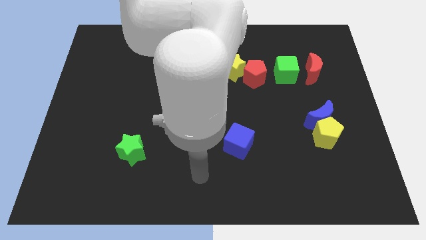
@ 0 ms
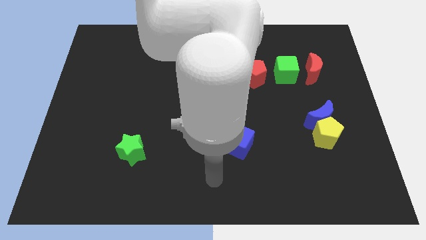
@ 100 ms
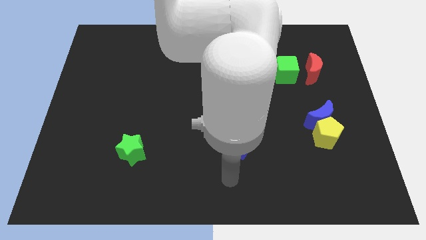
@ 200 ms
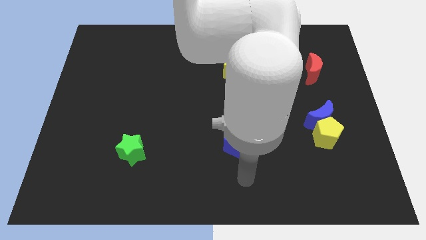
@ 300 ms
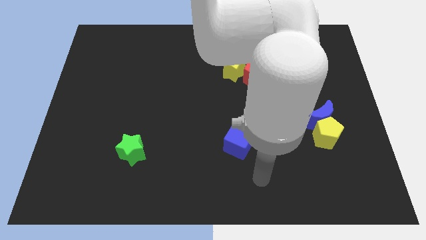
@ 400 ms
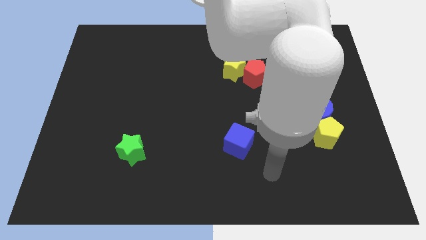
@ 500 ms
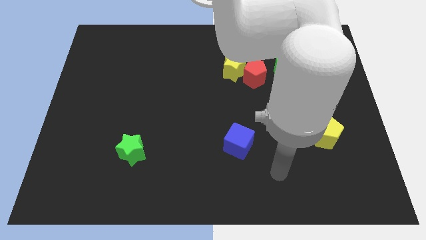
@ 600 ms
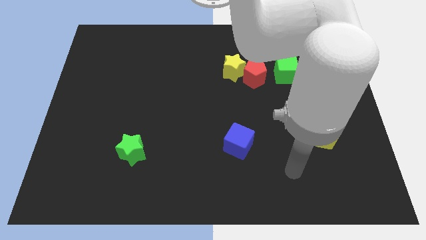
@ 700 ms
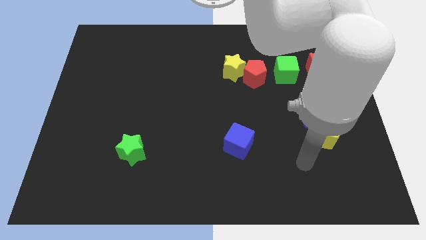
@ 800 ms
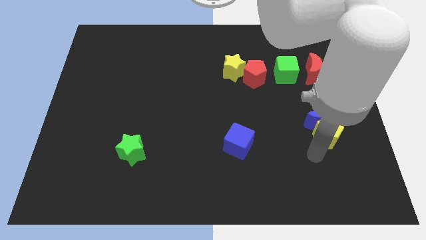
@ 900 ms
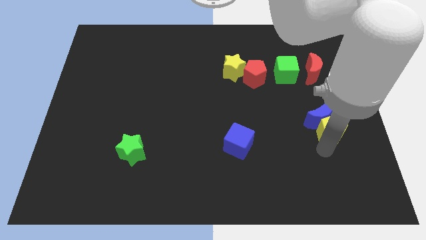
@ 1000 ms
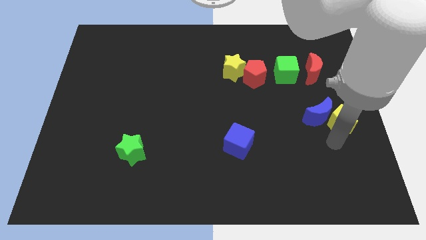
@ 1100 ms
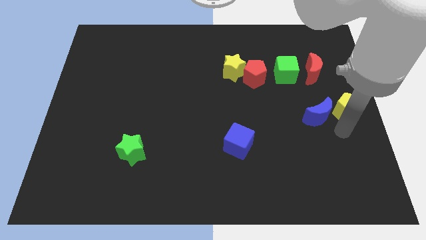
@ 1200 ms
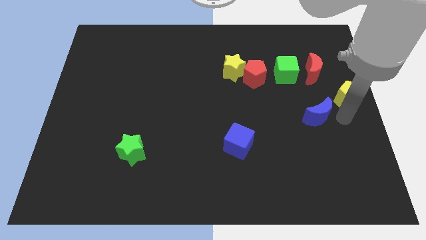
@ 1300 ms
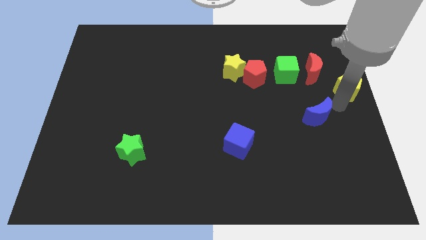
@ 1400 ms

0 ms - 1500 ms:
separate the blue moon from the yellow pentagon

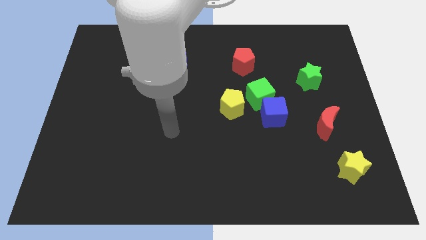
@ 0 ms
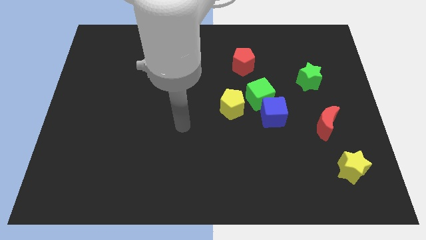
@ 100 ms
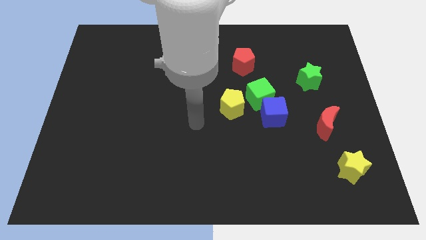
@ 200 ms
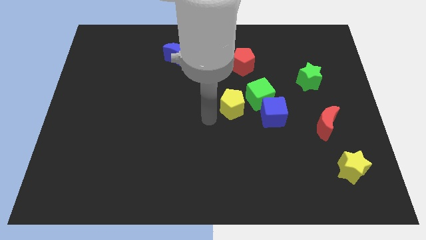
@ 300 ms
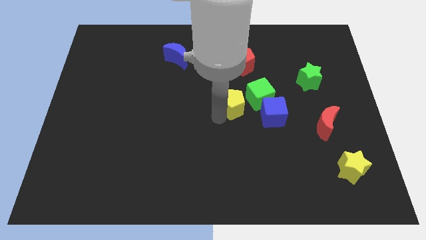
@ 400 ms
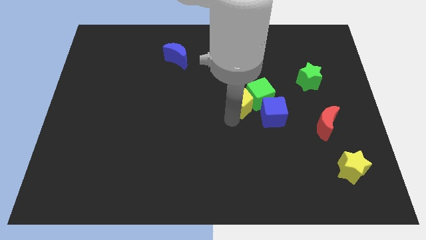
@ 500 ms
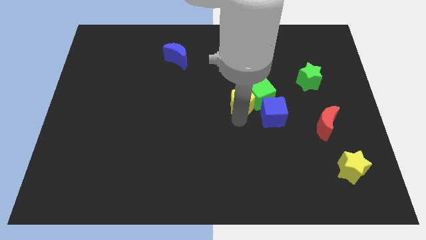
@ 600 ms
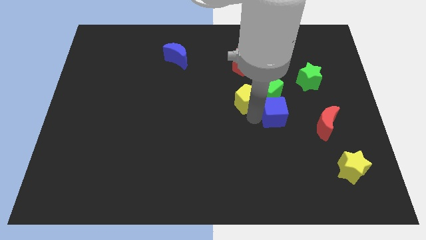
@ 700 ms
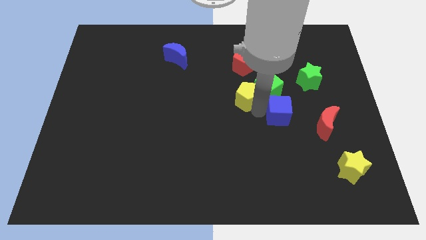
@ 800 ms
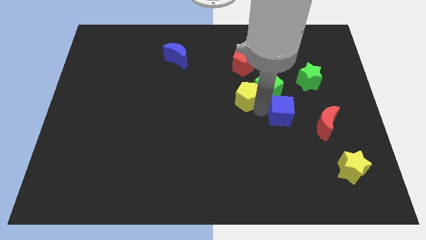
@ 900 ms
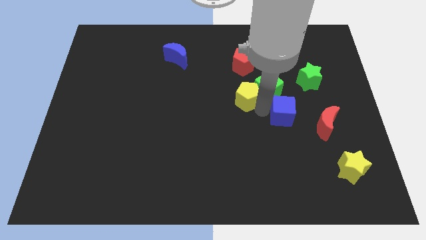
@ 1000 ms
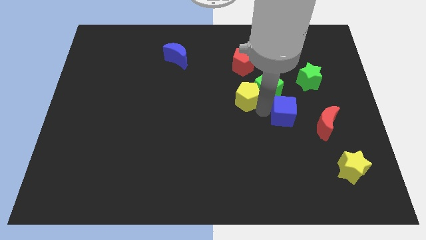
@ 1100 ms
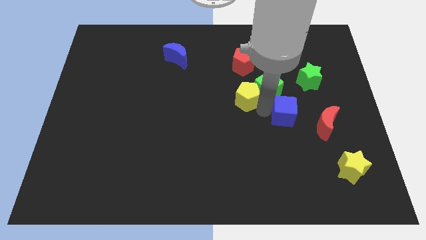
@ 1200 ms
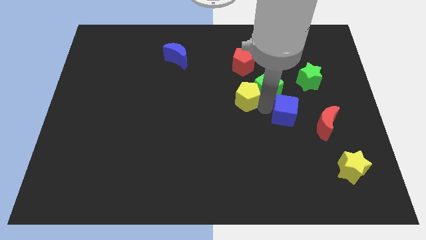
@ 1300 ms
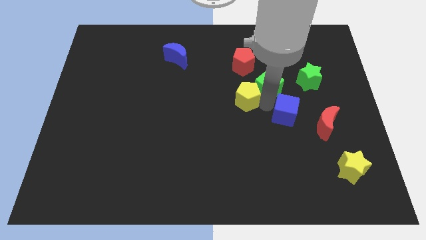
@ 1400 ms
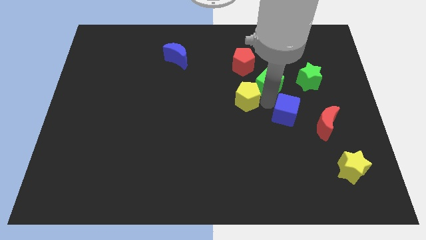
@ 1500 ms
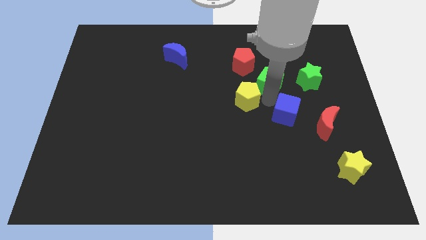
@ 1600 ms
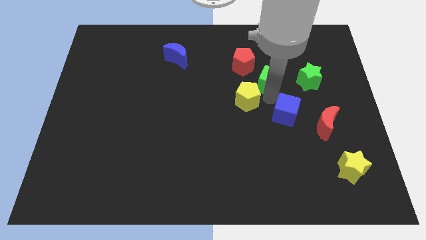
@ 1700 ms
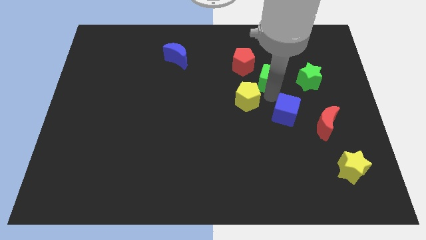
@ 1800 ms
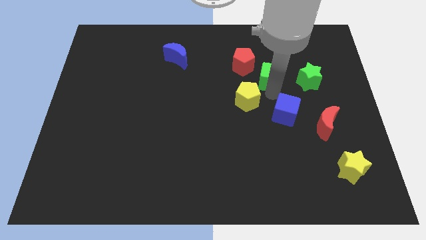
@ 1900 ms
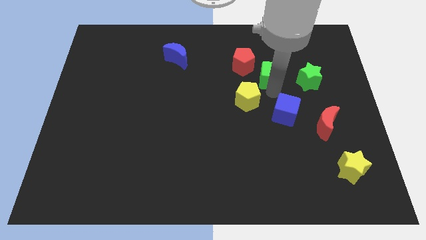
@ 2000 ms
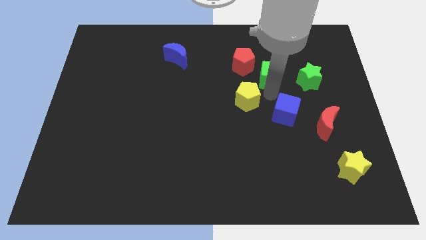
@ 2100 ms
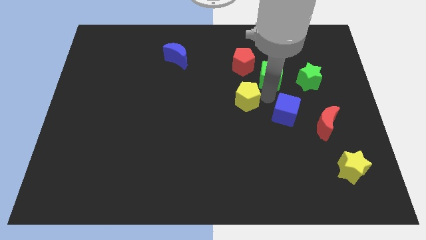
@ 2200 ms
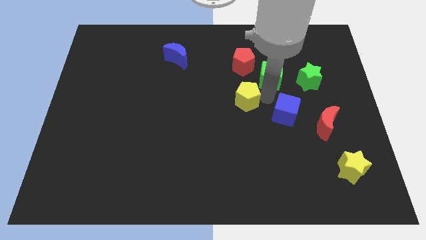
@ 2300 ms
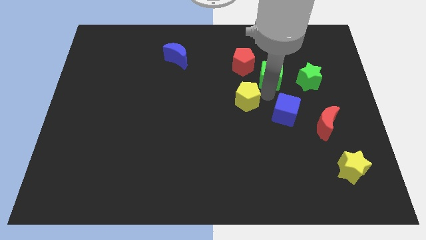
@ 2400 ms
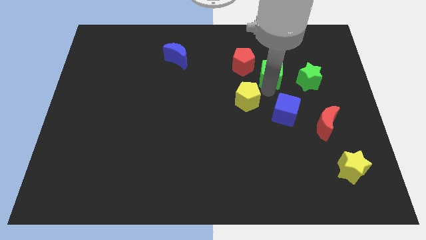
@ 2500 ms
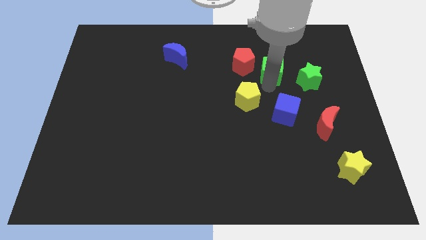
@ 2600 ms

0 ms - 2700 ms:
move the green cube away from the blue cube and yellow pentagon

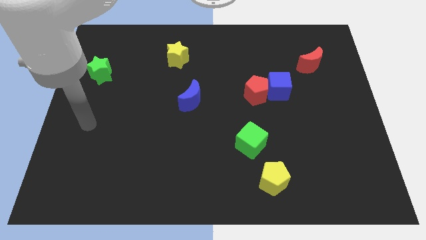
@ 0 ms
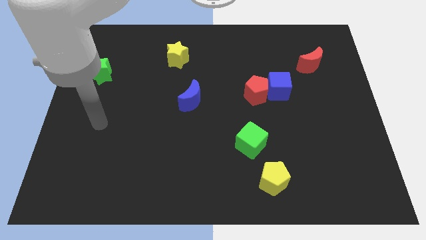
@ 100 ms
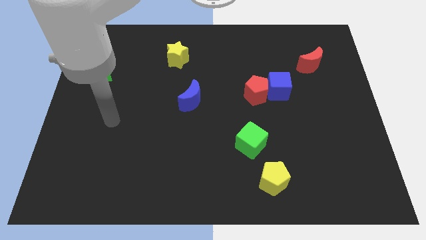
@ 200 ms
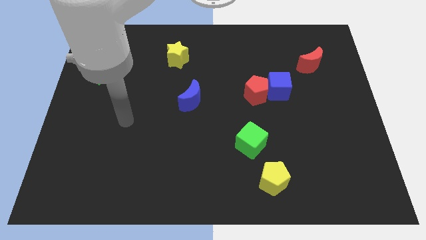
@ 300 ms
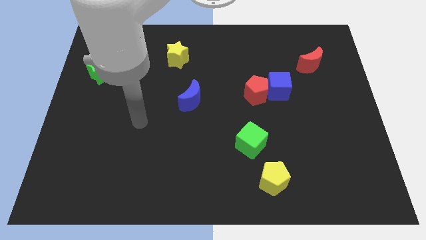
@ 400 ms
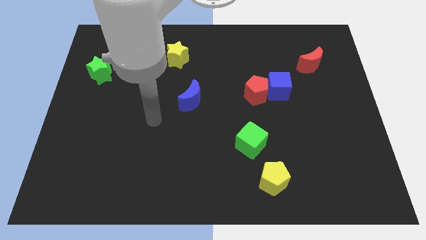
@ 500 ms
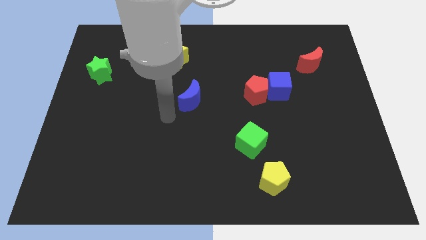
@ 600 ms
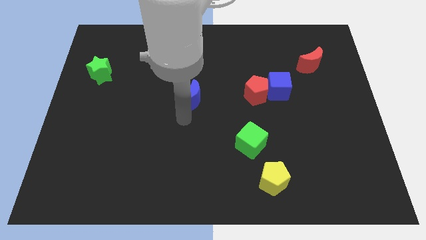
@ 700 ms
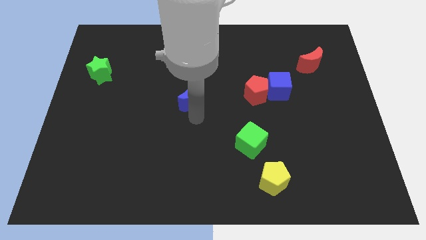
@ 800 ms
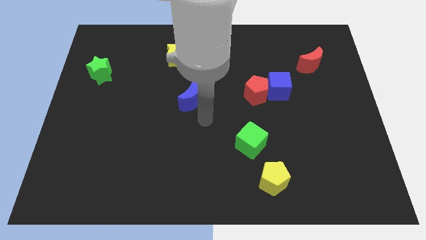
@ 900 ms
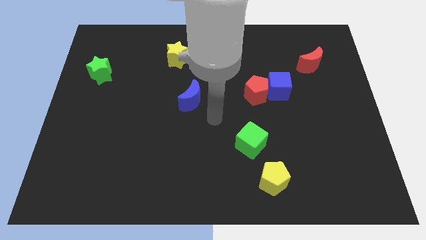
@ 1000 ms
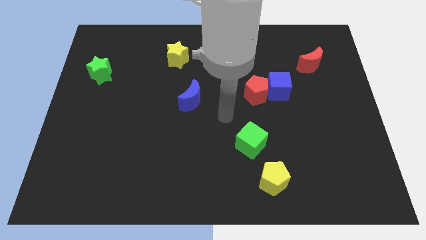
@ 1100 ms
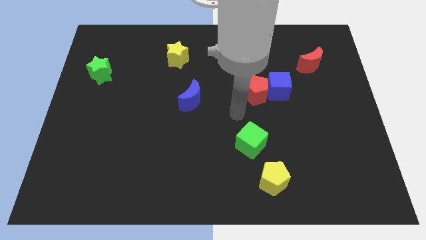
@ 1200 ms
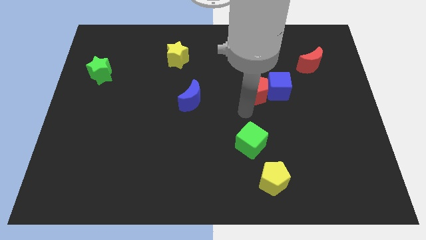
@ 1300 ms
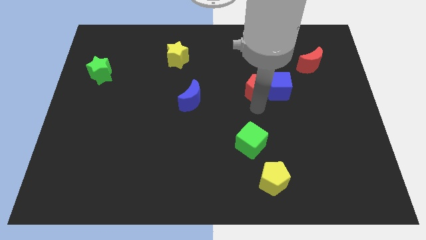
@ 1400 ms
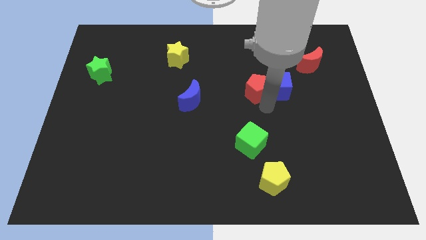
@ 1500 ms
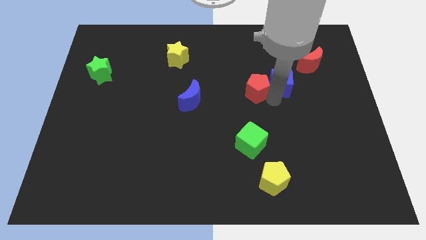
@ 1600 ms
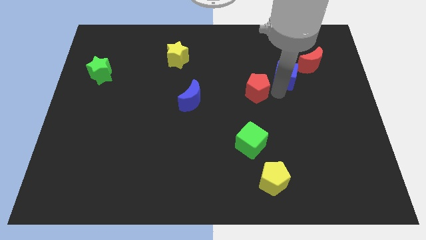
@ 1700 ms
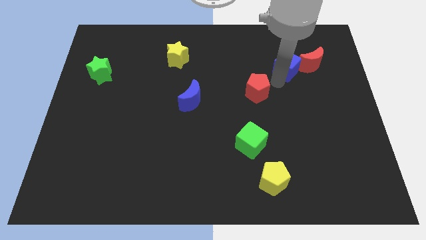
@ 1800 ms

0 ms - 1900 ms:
pull the red pentagon apart from the blue cube

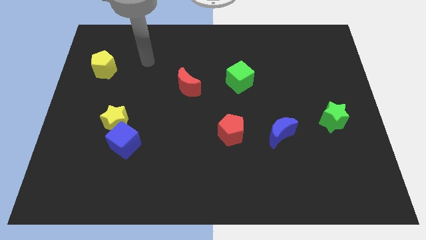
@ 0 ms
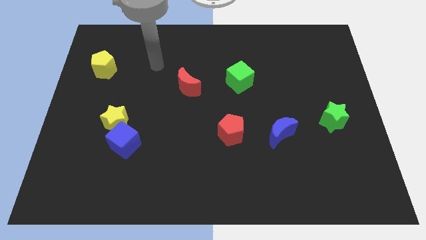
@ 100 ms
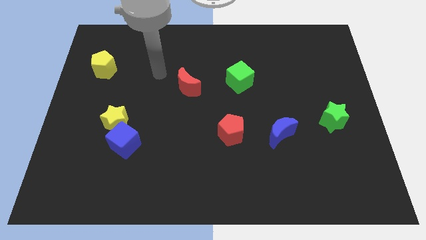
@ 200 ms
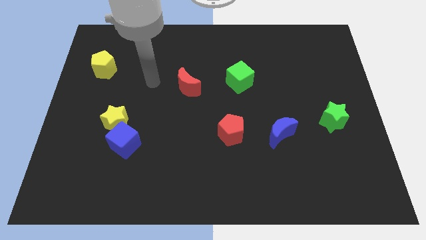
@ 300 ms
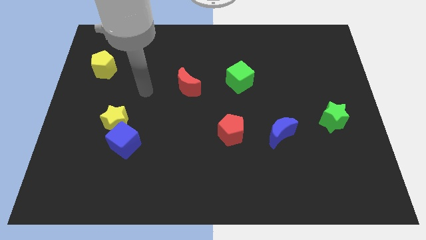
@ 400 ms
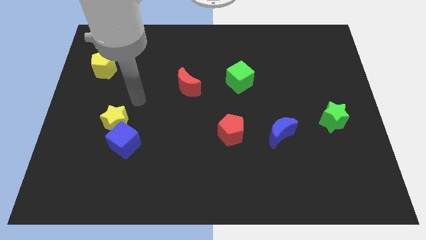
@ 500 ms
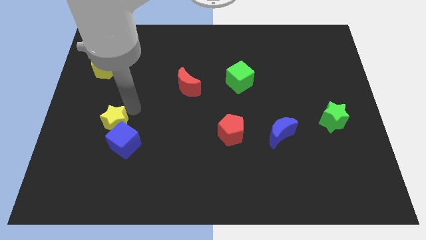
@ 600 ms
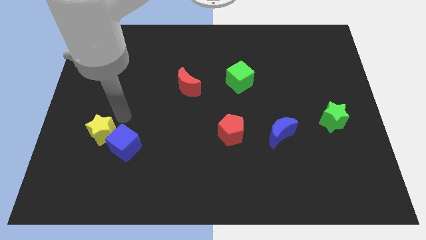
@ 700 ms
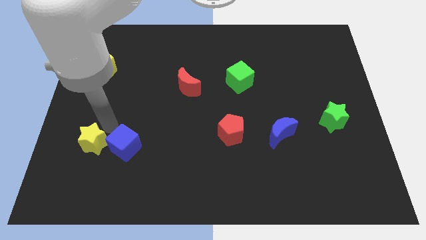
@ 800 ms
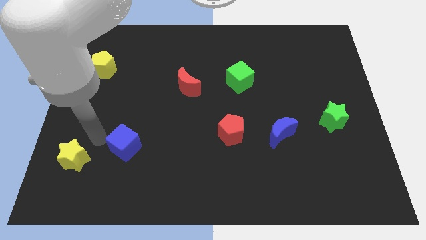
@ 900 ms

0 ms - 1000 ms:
pull the blue cube apart from the yellow star

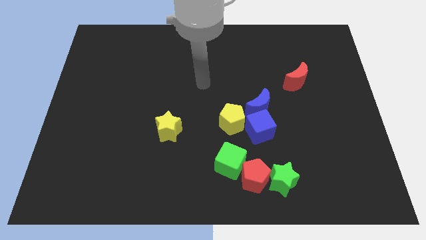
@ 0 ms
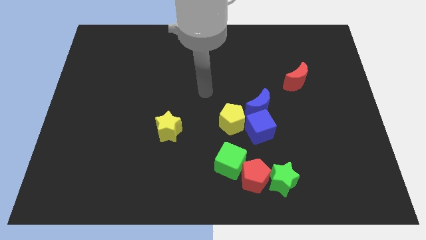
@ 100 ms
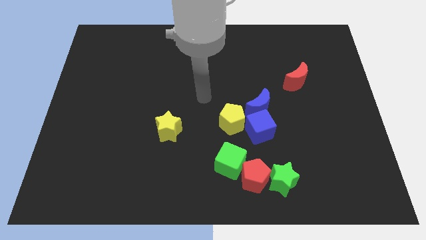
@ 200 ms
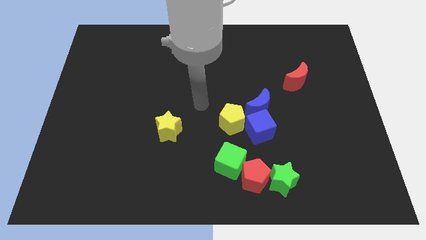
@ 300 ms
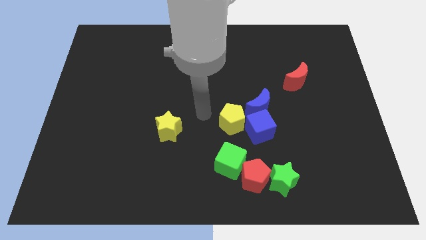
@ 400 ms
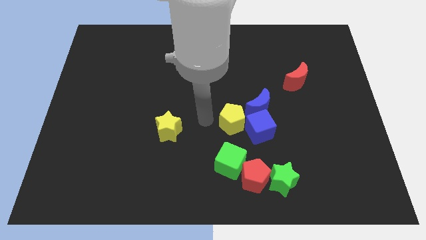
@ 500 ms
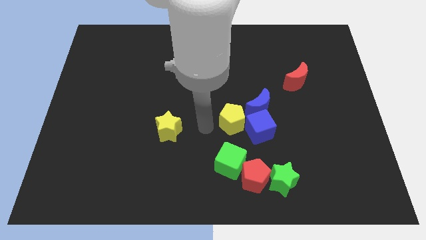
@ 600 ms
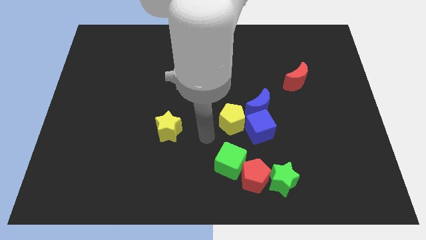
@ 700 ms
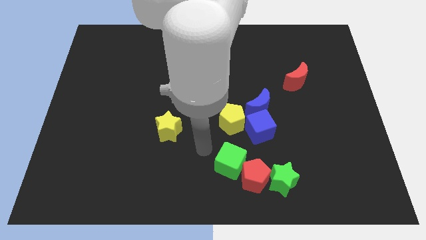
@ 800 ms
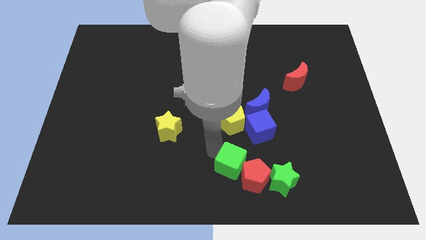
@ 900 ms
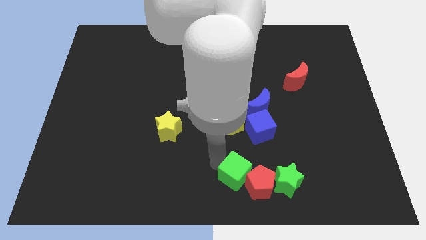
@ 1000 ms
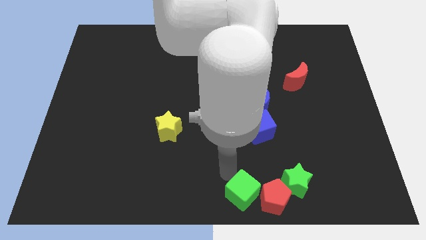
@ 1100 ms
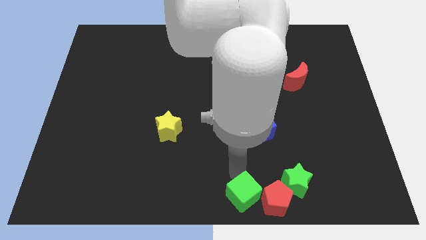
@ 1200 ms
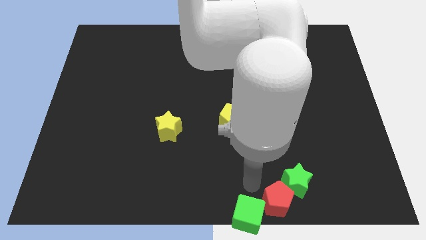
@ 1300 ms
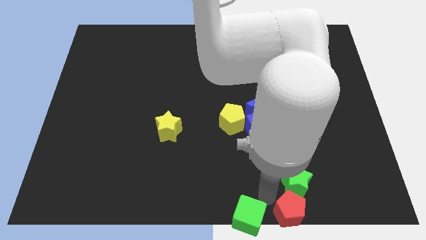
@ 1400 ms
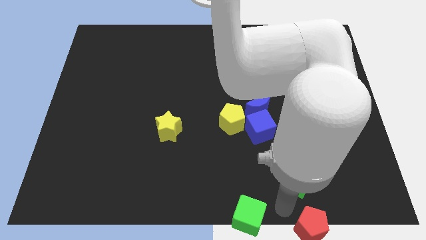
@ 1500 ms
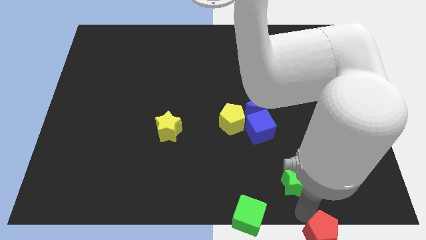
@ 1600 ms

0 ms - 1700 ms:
move the green star away from the red pentagon

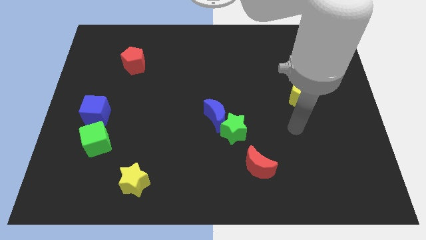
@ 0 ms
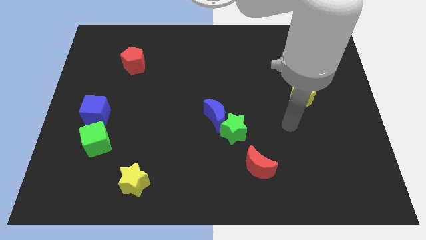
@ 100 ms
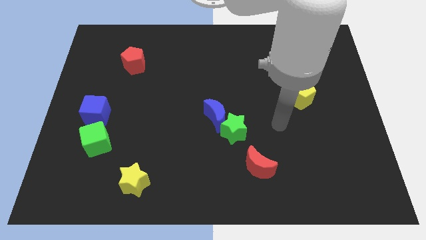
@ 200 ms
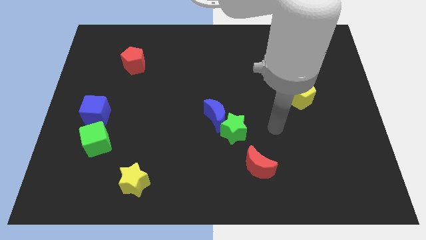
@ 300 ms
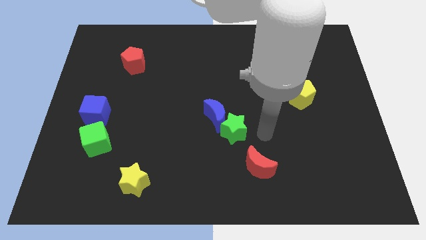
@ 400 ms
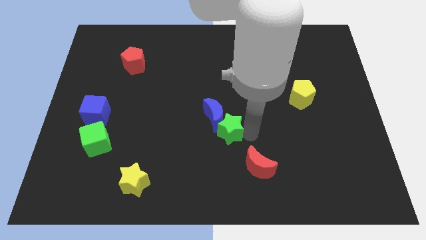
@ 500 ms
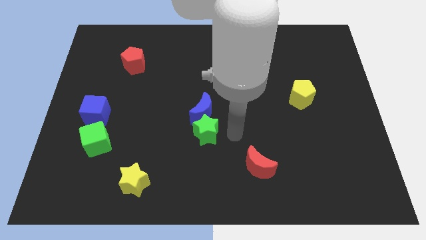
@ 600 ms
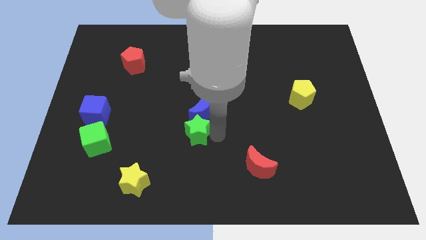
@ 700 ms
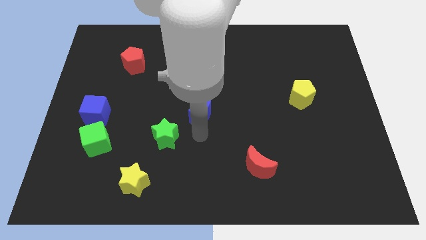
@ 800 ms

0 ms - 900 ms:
separate the blue moon from the green star
